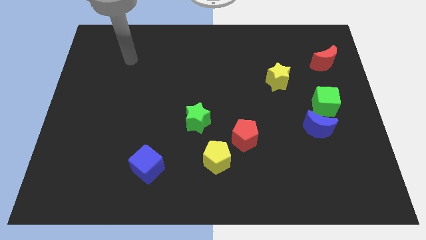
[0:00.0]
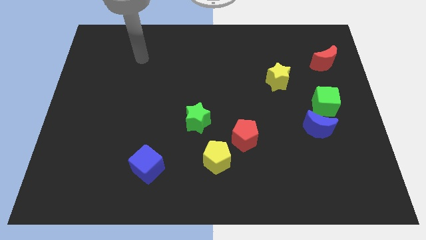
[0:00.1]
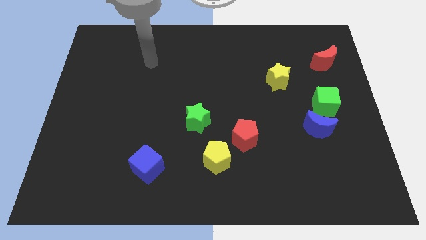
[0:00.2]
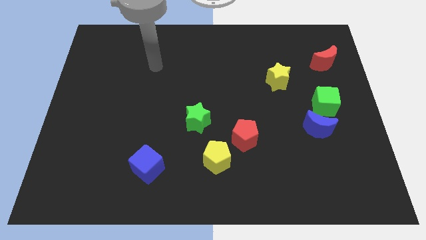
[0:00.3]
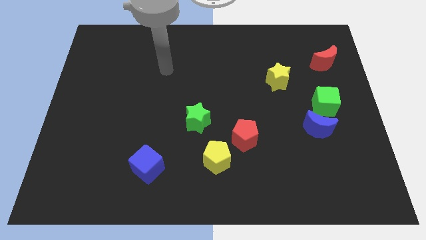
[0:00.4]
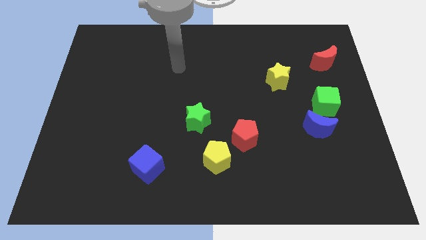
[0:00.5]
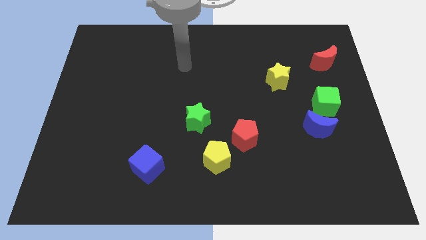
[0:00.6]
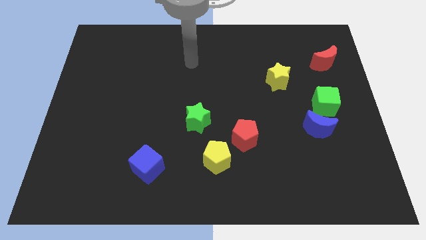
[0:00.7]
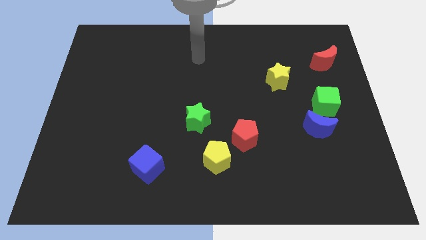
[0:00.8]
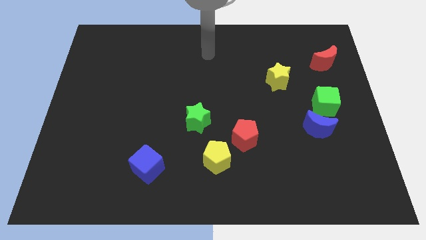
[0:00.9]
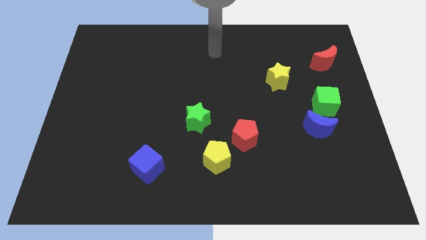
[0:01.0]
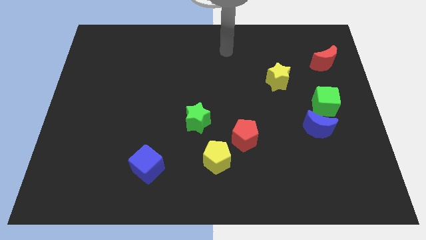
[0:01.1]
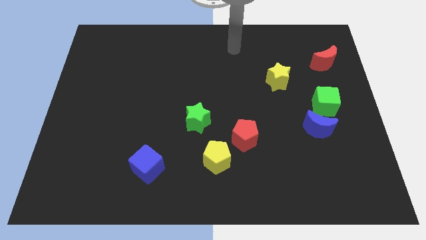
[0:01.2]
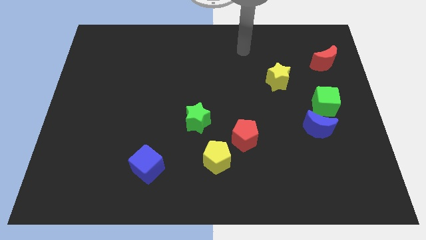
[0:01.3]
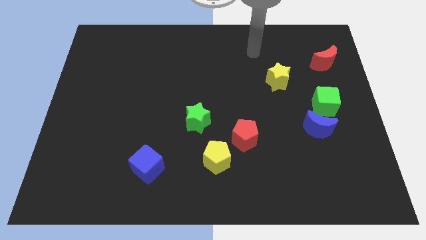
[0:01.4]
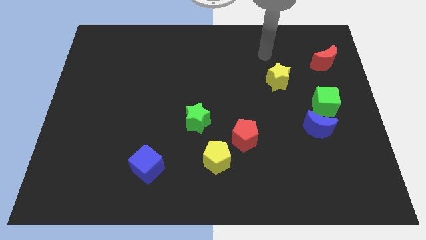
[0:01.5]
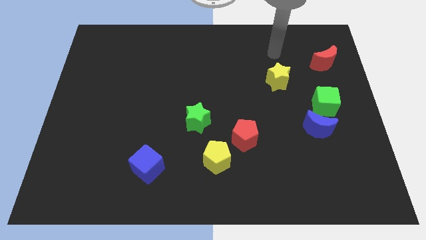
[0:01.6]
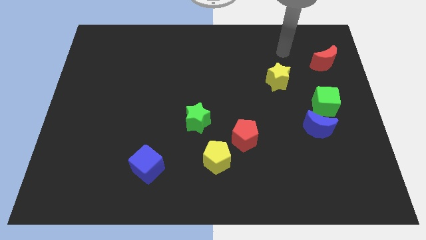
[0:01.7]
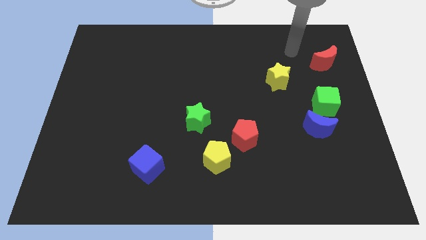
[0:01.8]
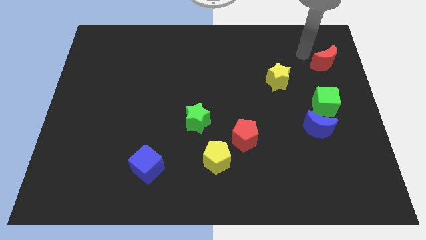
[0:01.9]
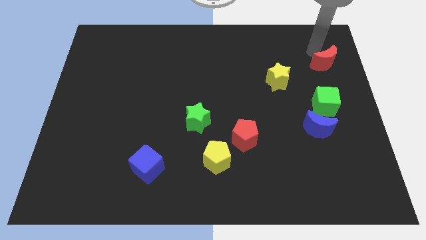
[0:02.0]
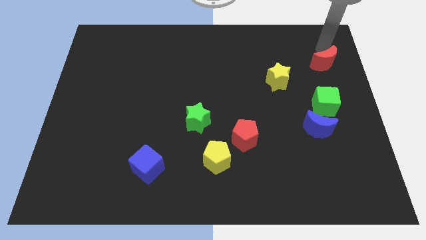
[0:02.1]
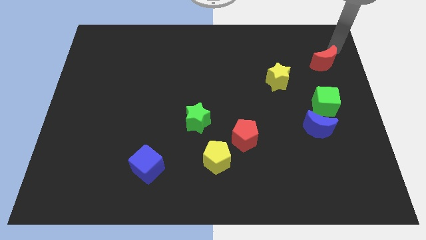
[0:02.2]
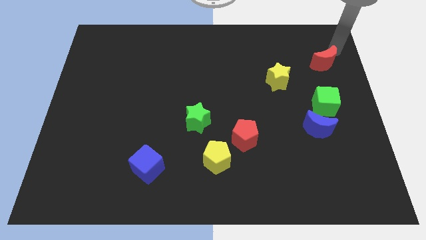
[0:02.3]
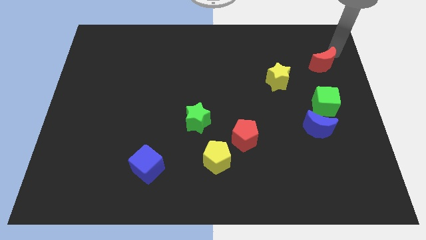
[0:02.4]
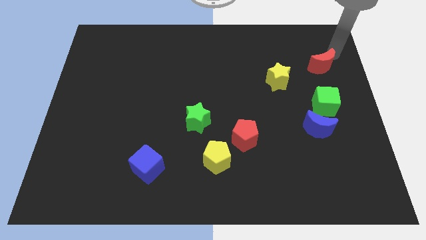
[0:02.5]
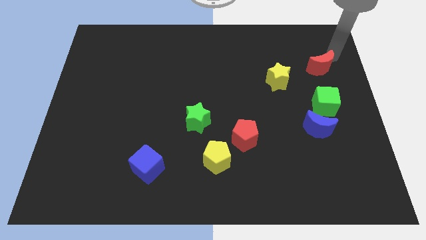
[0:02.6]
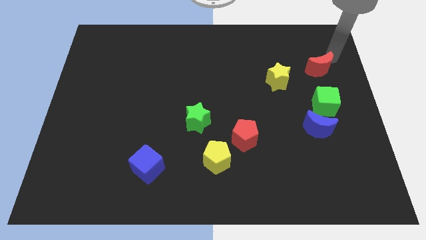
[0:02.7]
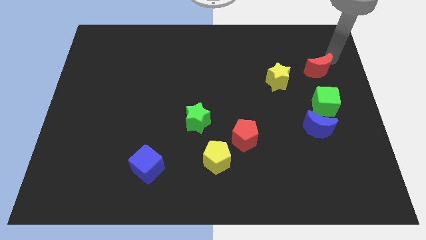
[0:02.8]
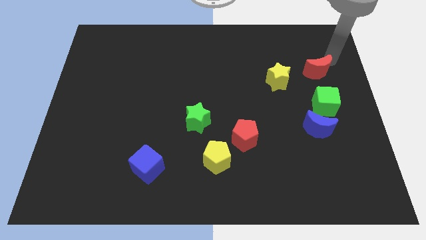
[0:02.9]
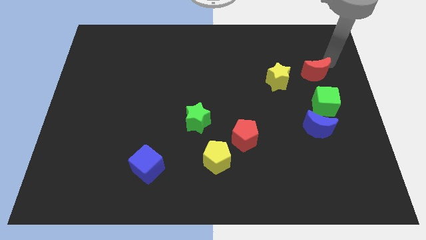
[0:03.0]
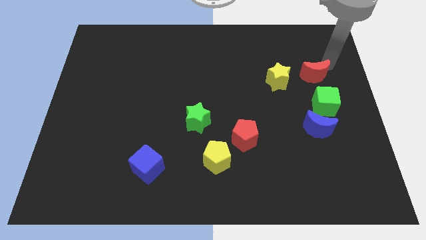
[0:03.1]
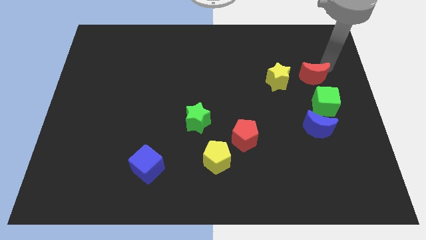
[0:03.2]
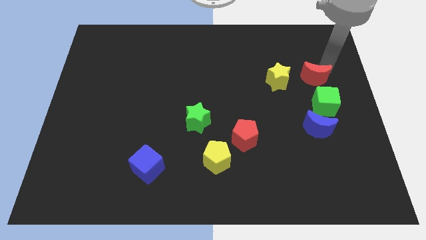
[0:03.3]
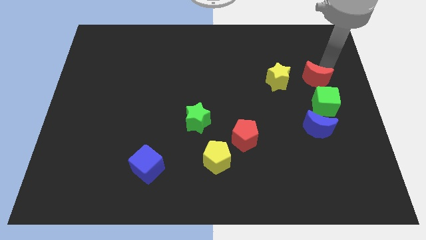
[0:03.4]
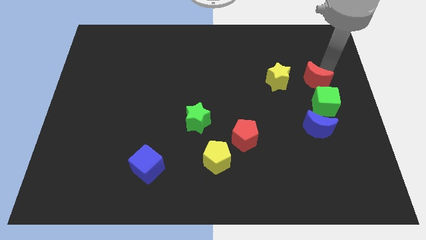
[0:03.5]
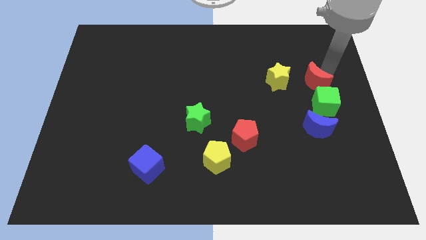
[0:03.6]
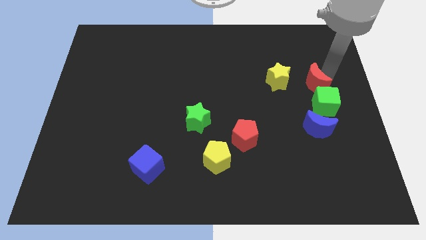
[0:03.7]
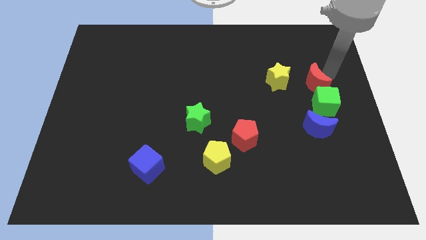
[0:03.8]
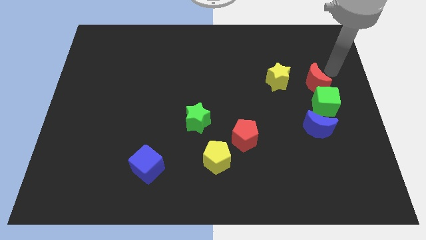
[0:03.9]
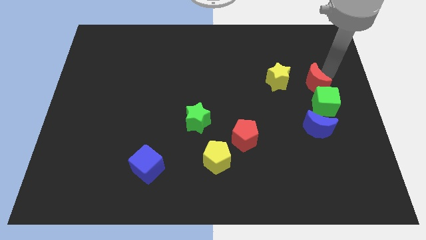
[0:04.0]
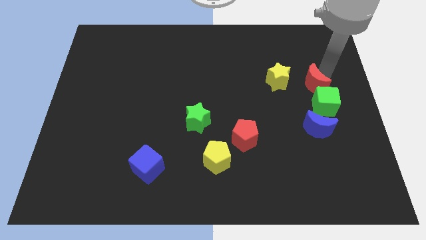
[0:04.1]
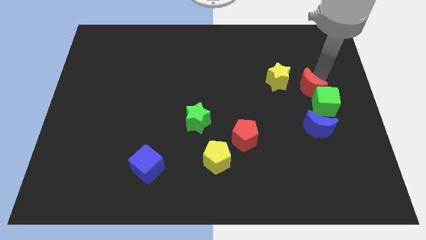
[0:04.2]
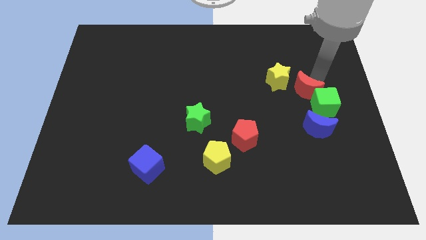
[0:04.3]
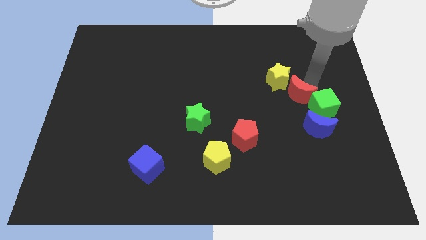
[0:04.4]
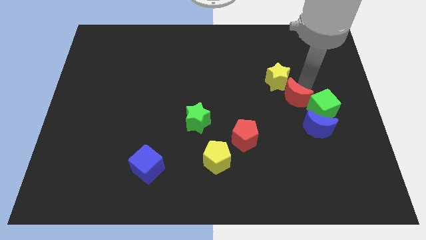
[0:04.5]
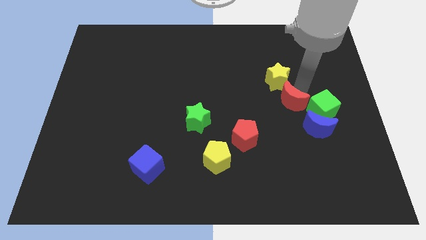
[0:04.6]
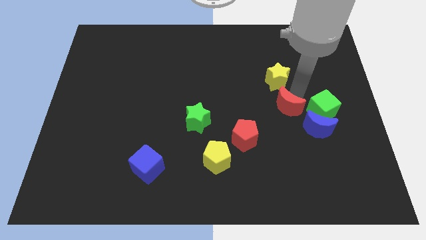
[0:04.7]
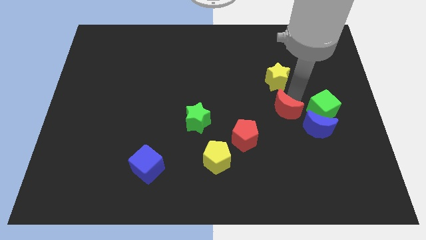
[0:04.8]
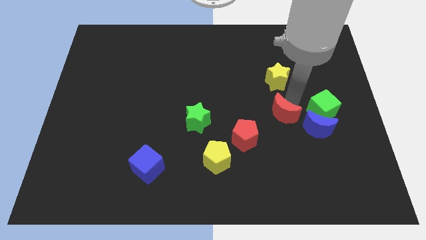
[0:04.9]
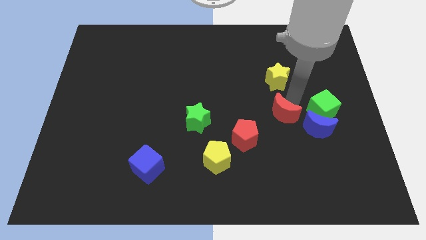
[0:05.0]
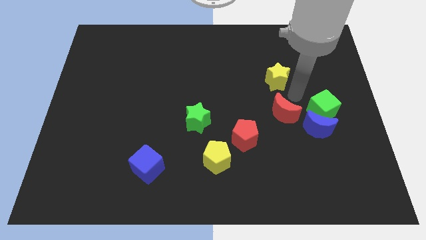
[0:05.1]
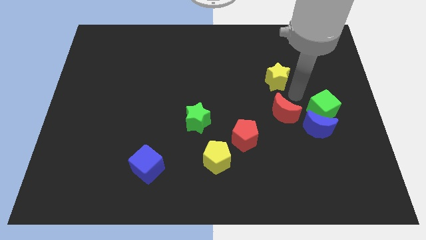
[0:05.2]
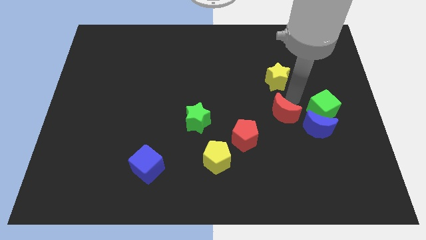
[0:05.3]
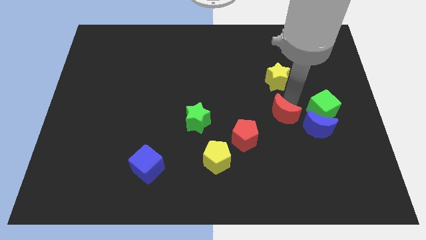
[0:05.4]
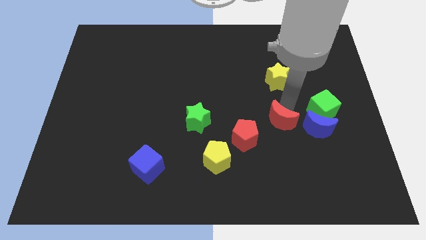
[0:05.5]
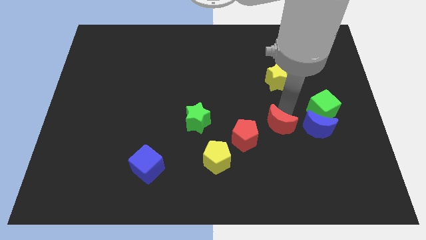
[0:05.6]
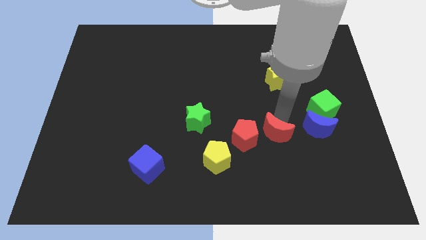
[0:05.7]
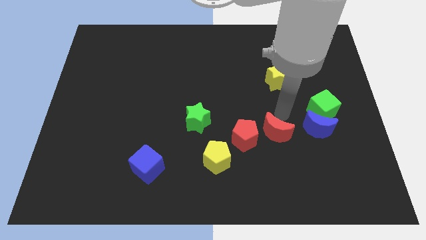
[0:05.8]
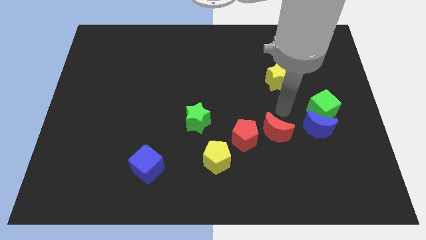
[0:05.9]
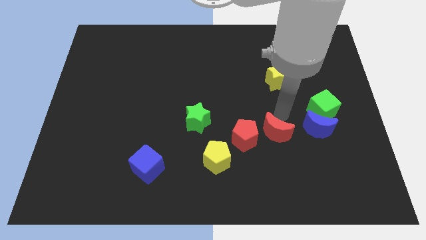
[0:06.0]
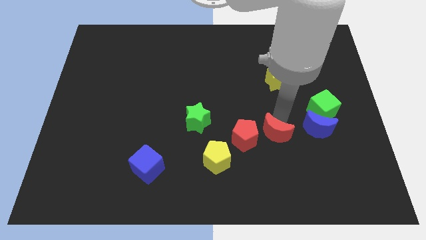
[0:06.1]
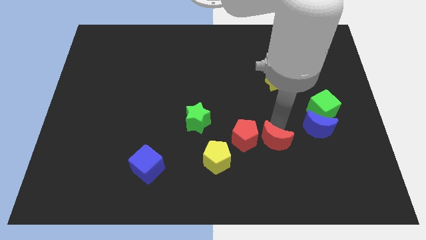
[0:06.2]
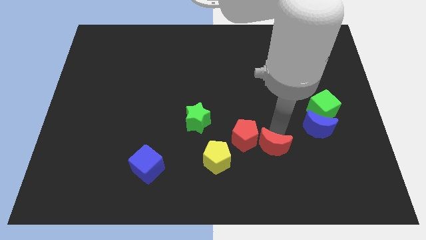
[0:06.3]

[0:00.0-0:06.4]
push the red moon right of the yellow pentagon

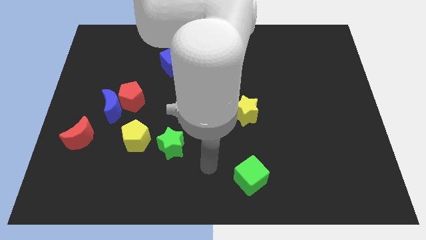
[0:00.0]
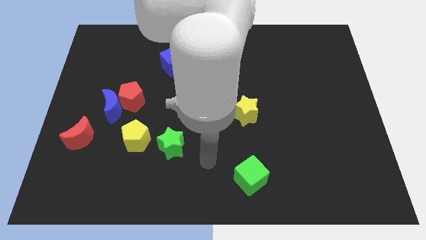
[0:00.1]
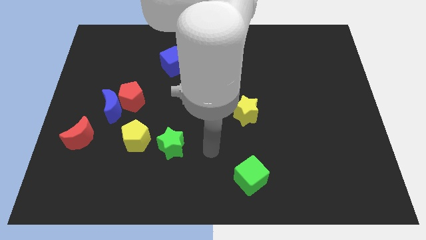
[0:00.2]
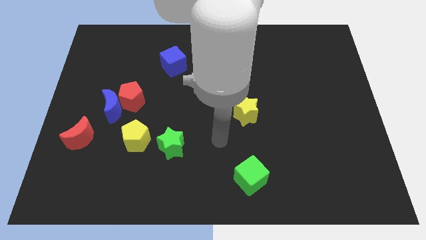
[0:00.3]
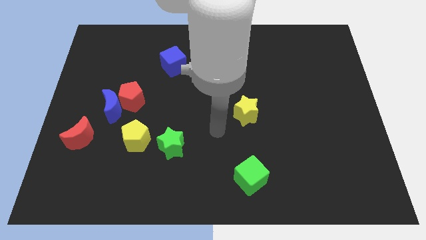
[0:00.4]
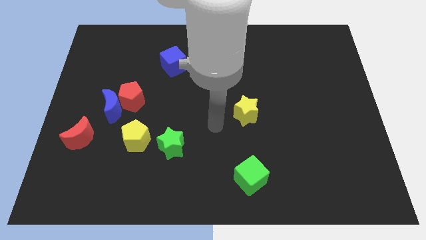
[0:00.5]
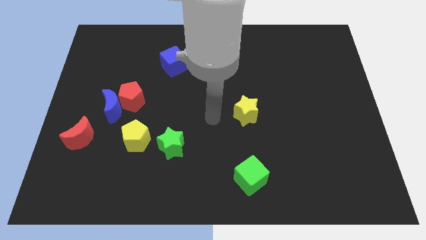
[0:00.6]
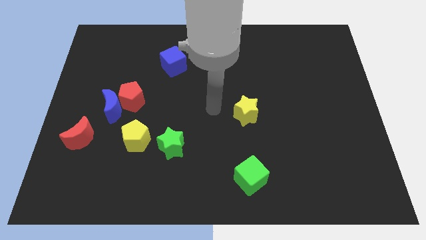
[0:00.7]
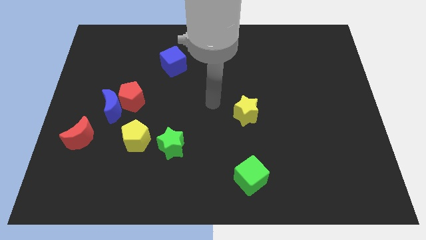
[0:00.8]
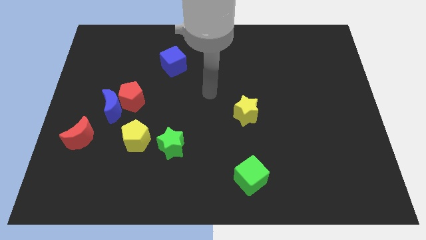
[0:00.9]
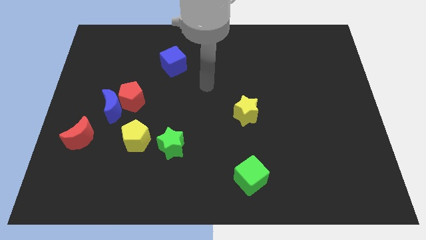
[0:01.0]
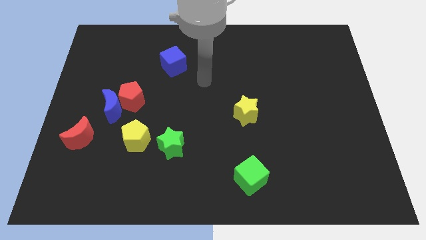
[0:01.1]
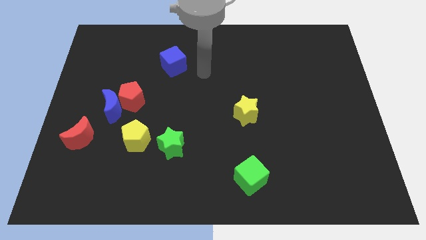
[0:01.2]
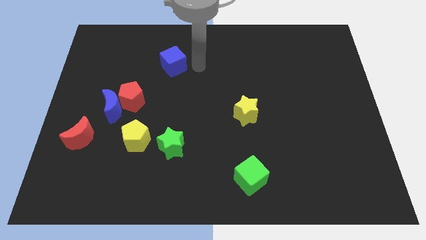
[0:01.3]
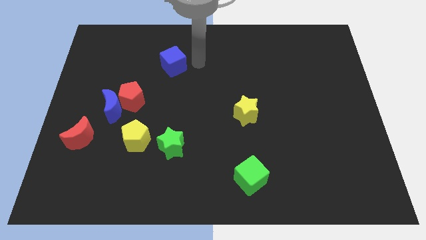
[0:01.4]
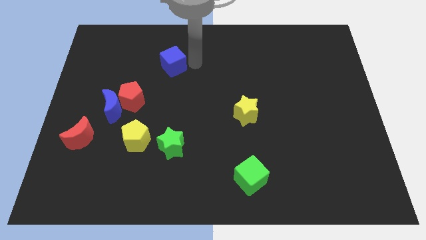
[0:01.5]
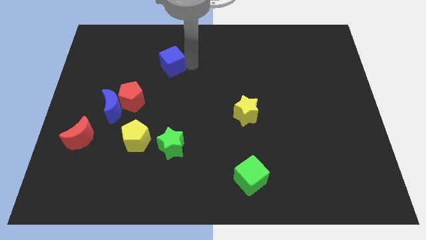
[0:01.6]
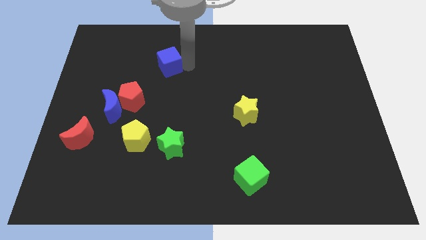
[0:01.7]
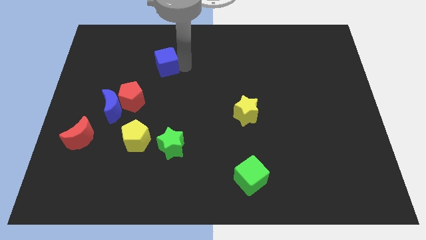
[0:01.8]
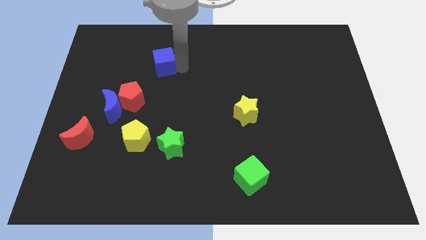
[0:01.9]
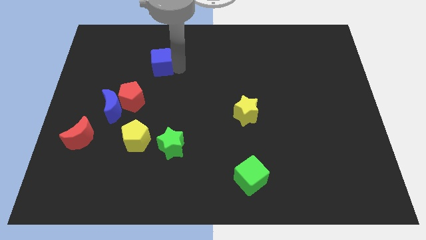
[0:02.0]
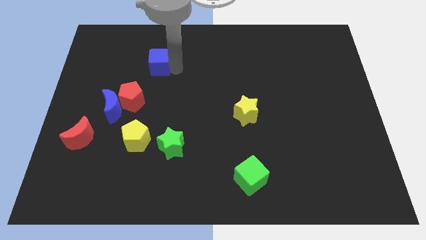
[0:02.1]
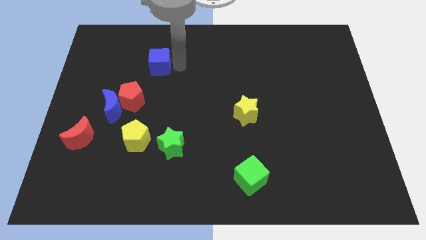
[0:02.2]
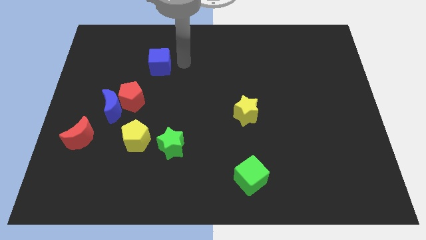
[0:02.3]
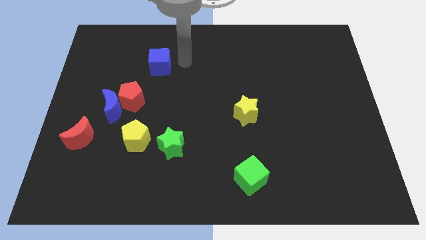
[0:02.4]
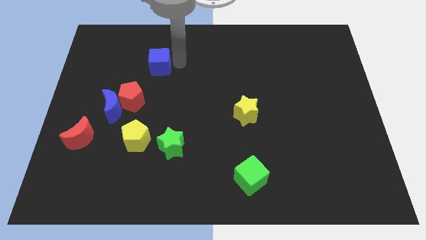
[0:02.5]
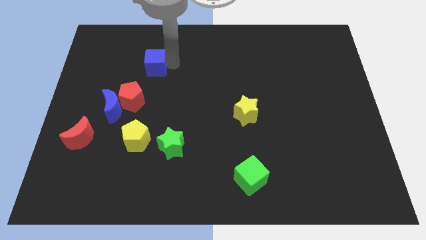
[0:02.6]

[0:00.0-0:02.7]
slide the blue cube to the top side of the red pentagon
